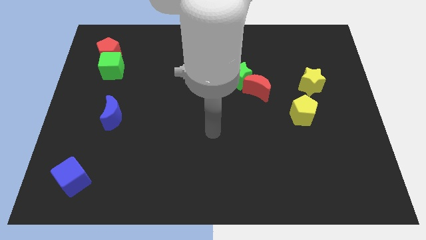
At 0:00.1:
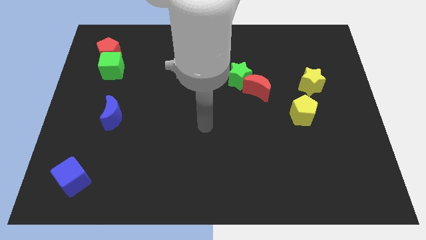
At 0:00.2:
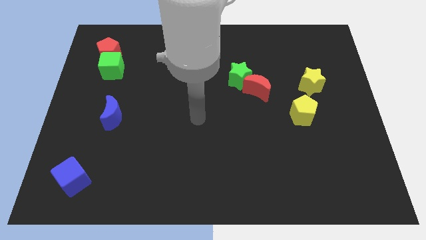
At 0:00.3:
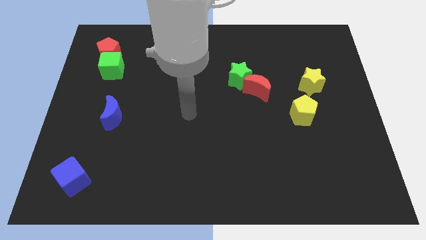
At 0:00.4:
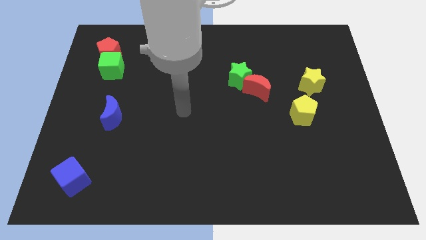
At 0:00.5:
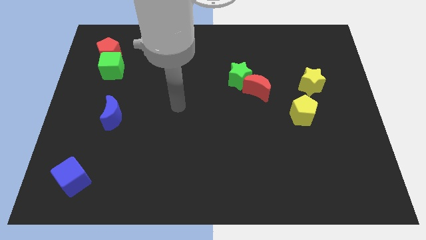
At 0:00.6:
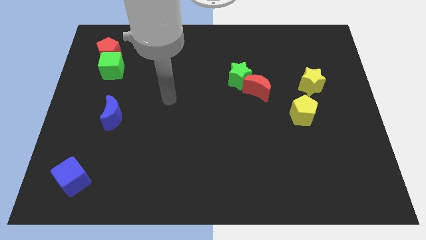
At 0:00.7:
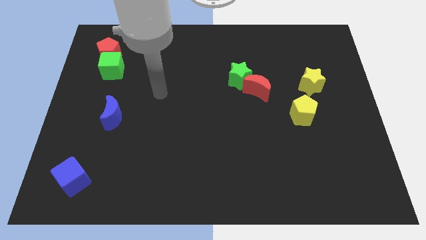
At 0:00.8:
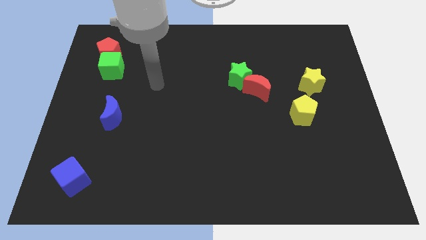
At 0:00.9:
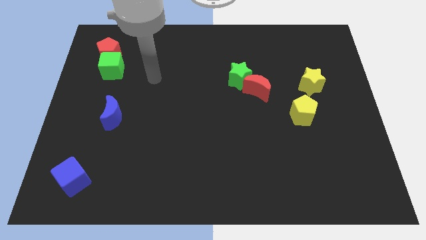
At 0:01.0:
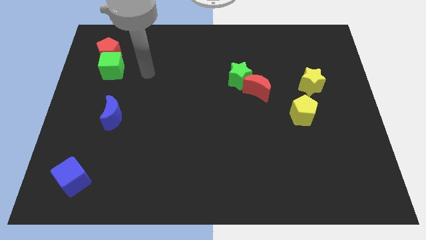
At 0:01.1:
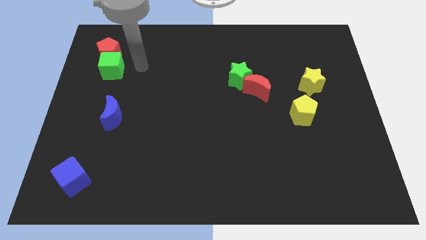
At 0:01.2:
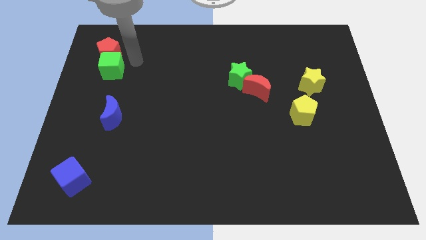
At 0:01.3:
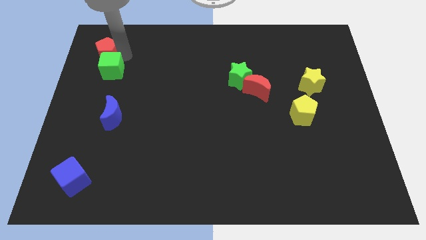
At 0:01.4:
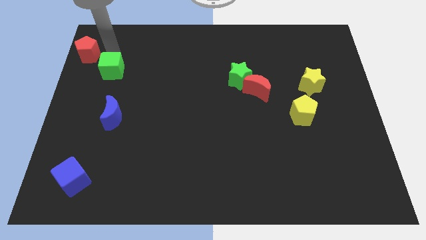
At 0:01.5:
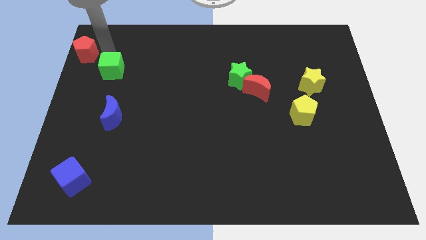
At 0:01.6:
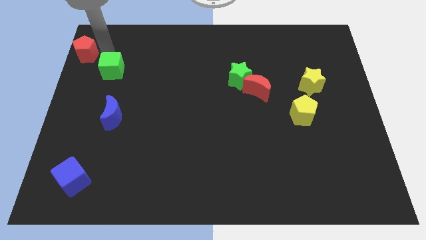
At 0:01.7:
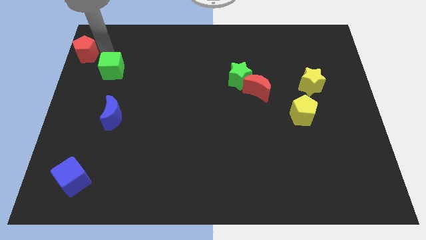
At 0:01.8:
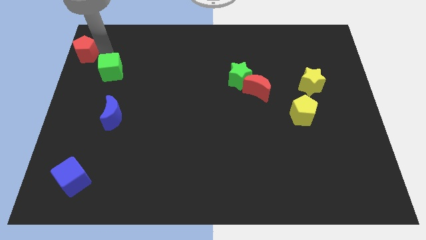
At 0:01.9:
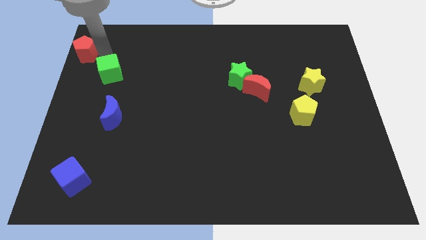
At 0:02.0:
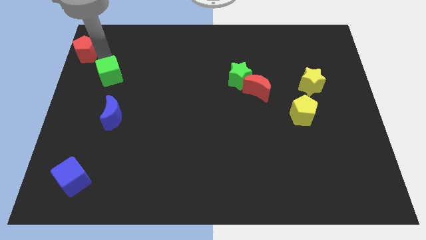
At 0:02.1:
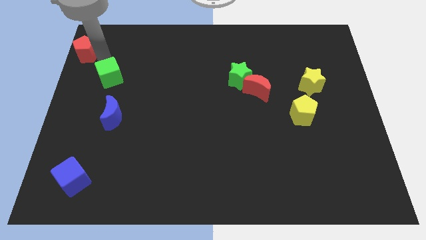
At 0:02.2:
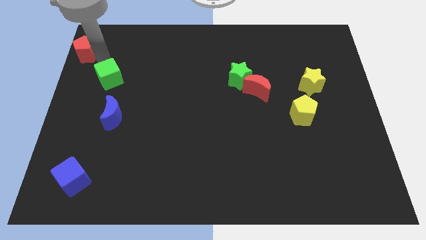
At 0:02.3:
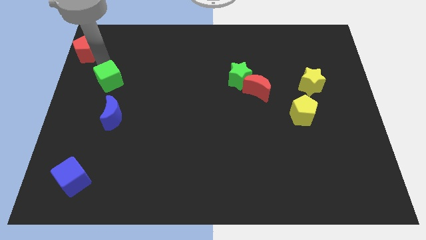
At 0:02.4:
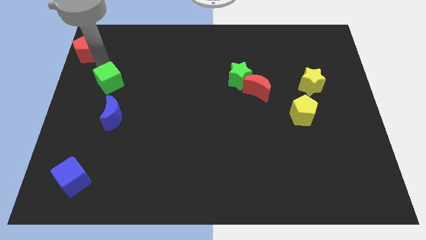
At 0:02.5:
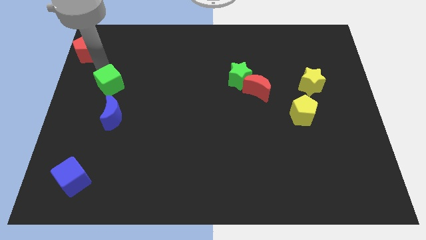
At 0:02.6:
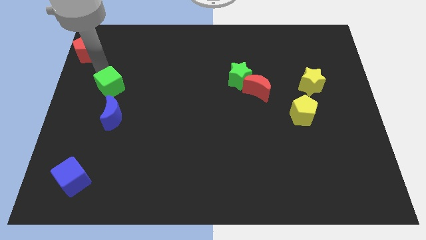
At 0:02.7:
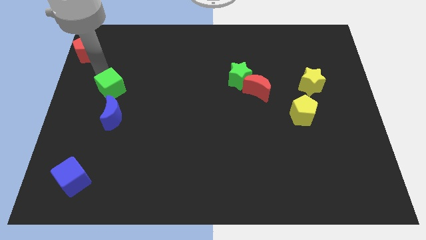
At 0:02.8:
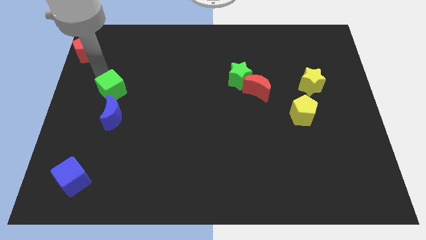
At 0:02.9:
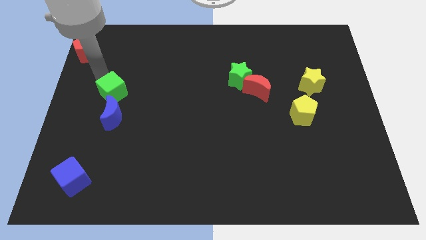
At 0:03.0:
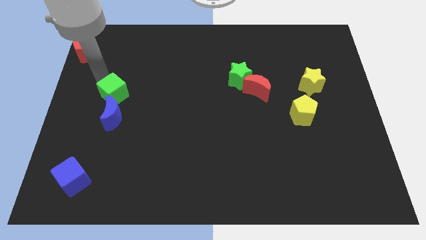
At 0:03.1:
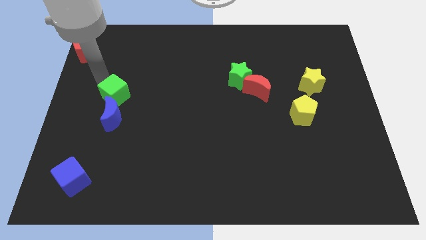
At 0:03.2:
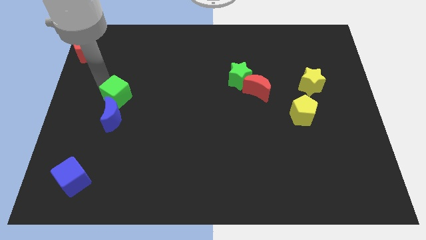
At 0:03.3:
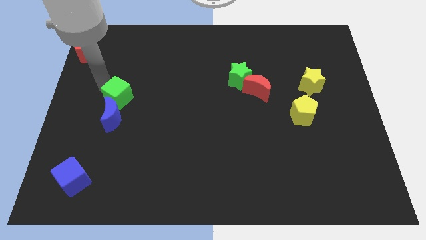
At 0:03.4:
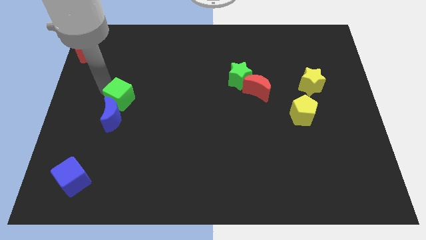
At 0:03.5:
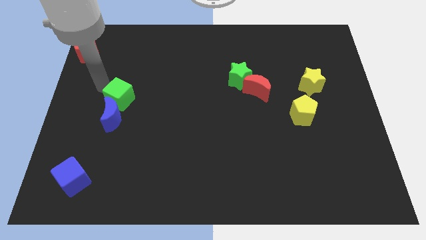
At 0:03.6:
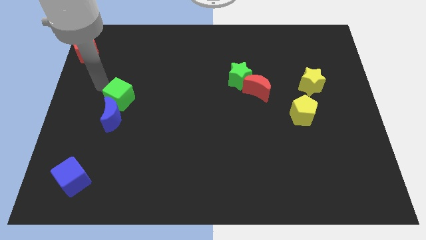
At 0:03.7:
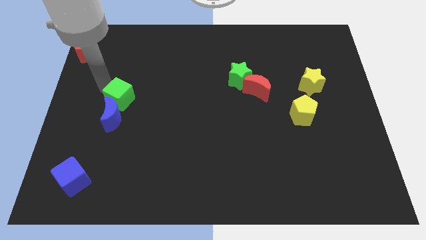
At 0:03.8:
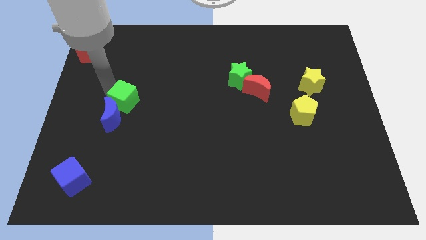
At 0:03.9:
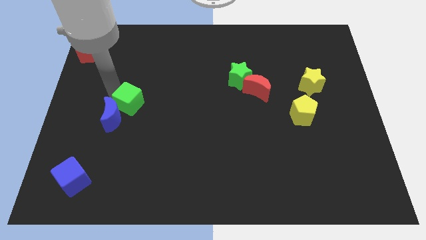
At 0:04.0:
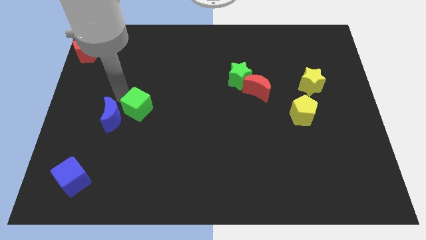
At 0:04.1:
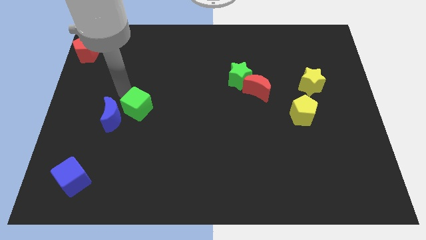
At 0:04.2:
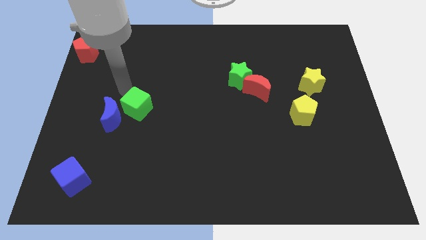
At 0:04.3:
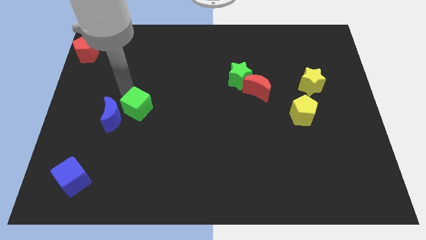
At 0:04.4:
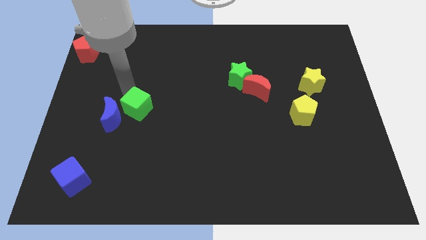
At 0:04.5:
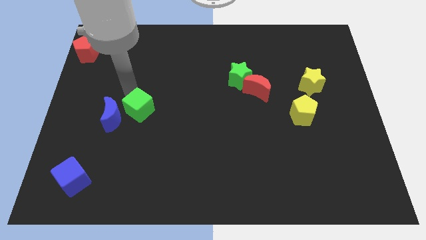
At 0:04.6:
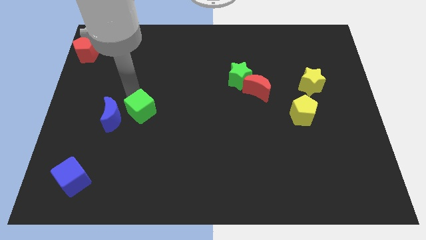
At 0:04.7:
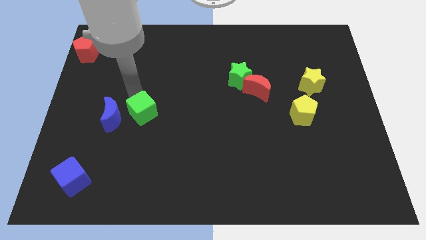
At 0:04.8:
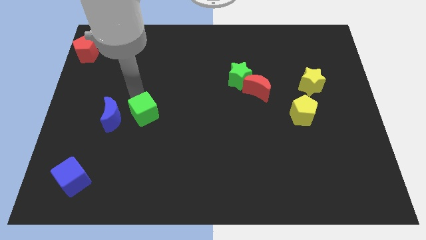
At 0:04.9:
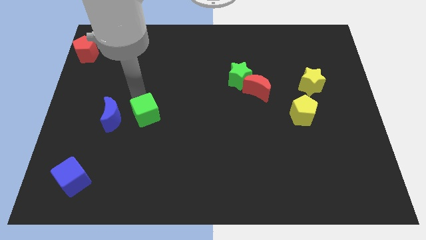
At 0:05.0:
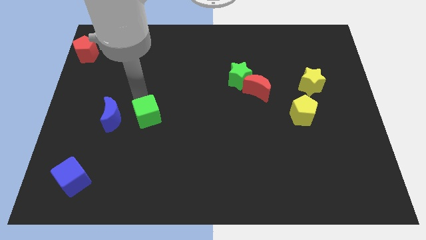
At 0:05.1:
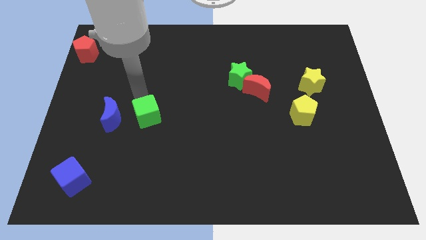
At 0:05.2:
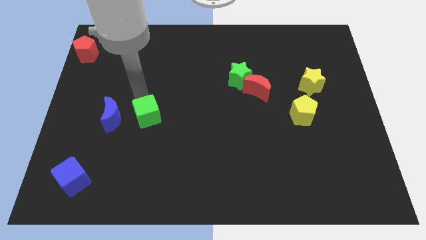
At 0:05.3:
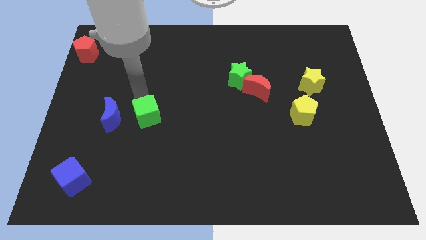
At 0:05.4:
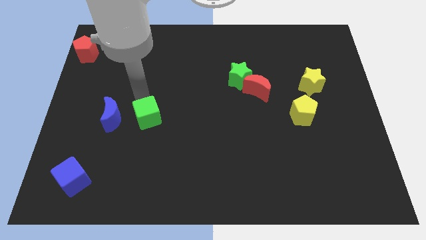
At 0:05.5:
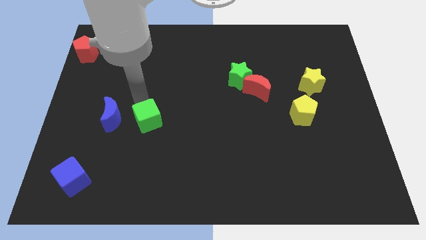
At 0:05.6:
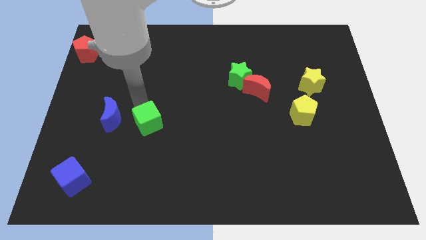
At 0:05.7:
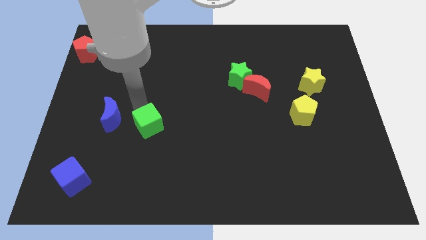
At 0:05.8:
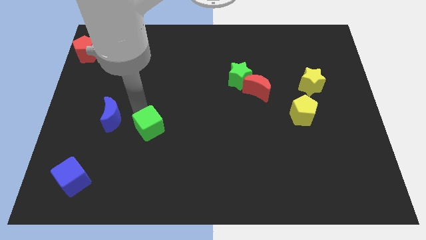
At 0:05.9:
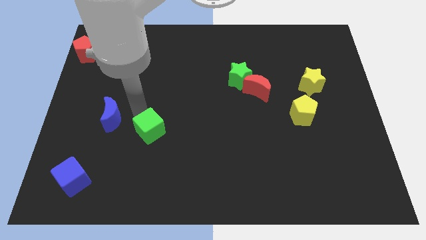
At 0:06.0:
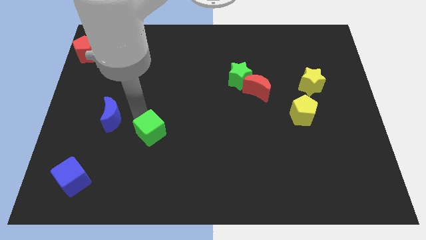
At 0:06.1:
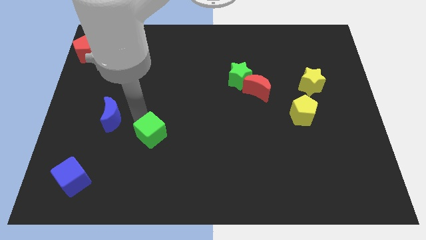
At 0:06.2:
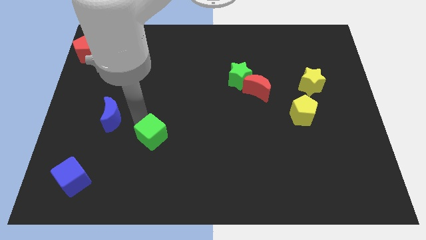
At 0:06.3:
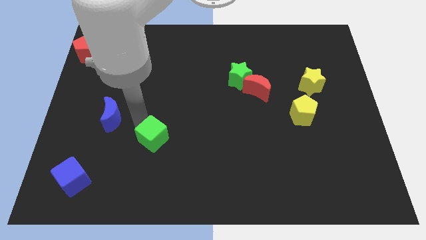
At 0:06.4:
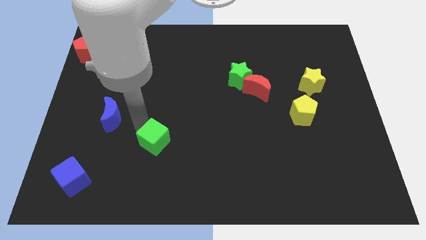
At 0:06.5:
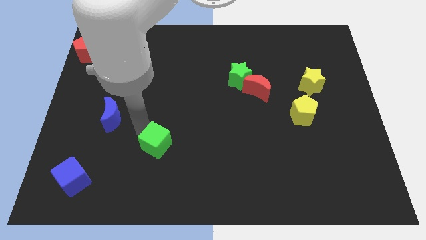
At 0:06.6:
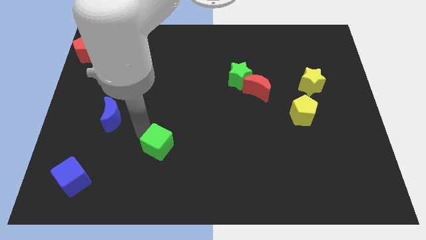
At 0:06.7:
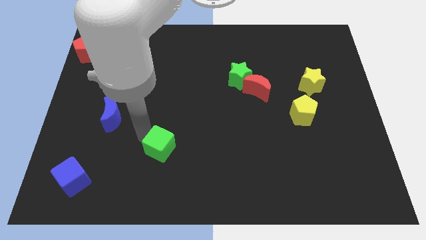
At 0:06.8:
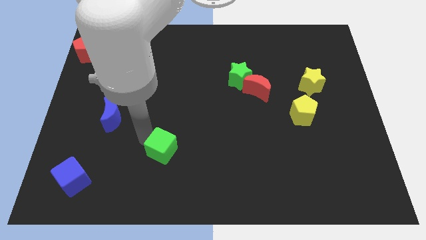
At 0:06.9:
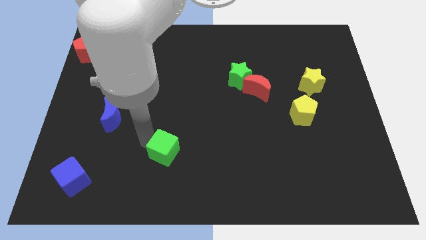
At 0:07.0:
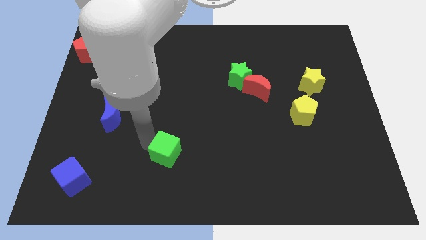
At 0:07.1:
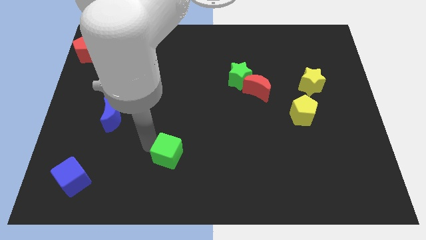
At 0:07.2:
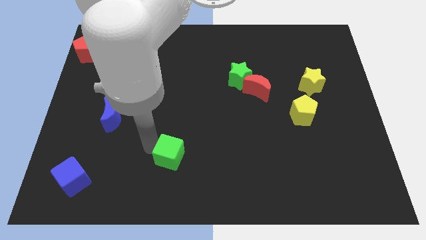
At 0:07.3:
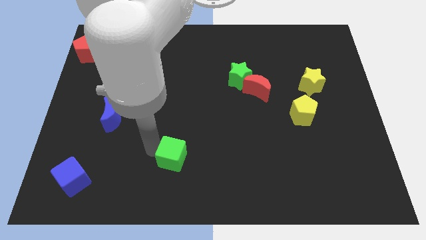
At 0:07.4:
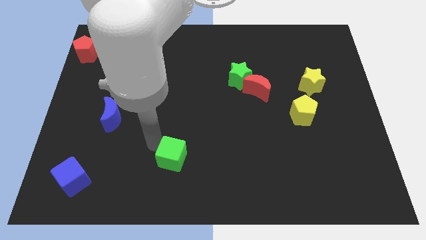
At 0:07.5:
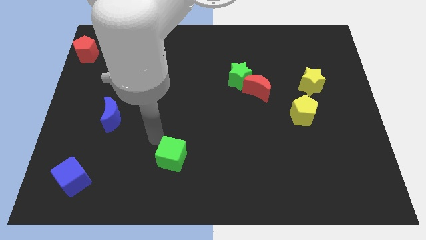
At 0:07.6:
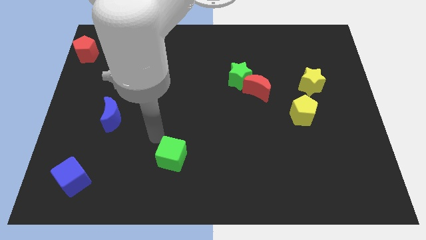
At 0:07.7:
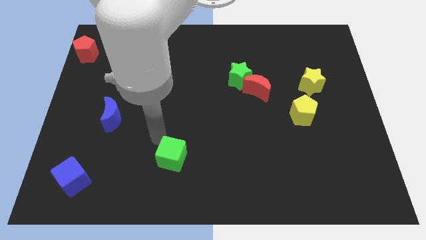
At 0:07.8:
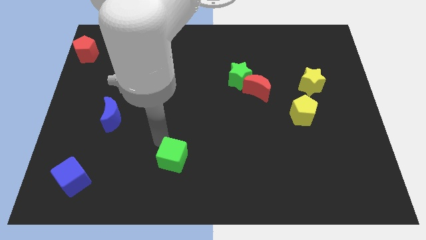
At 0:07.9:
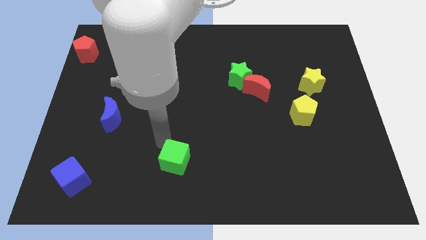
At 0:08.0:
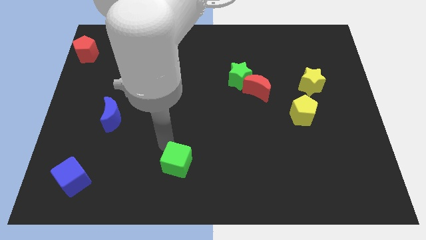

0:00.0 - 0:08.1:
put the green cube to the bottom side
